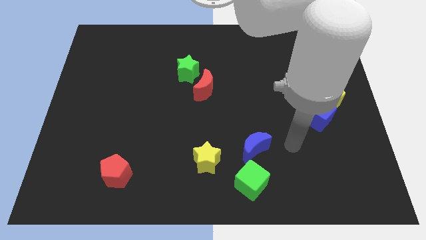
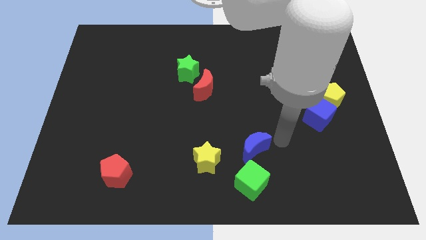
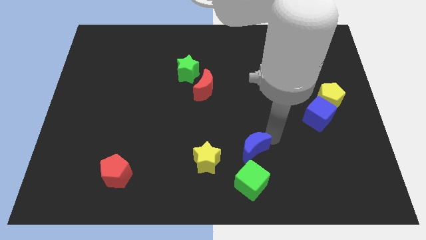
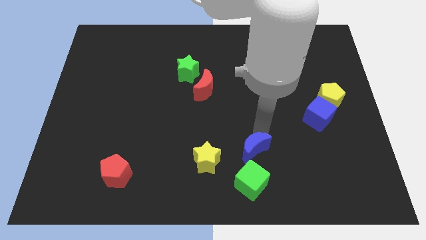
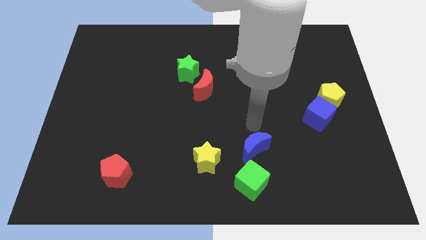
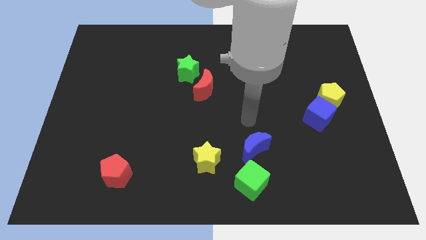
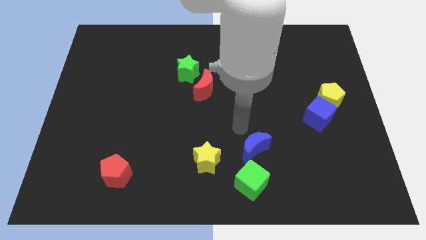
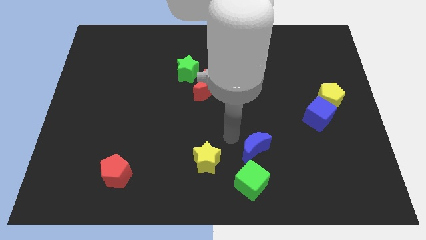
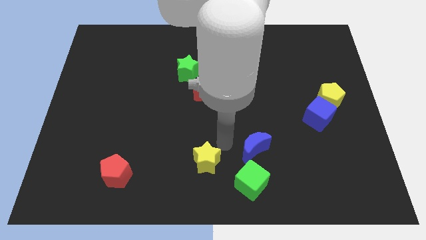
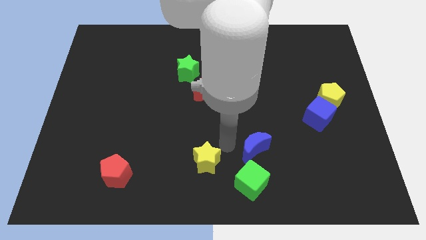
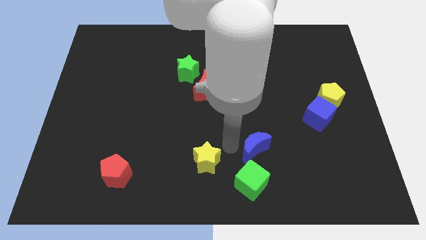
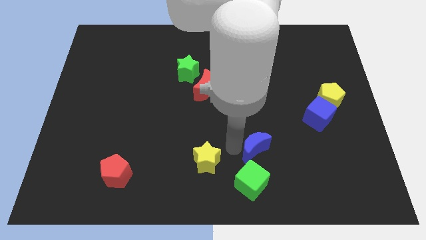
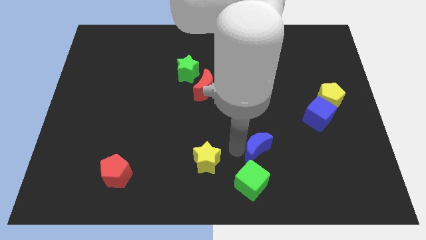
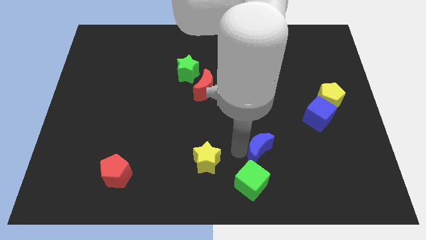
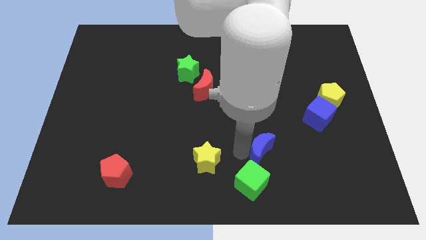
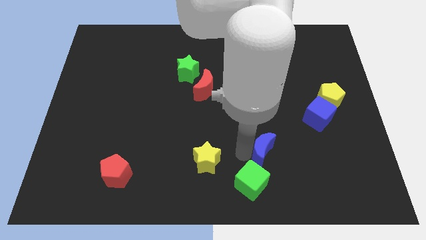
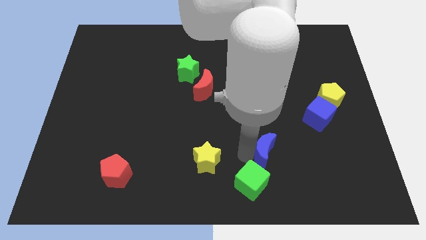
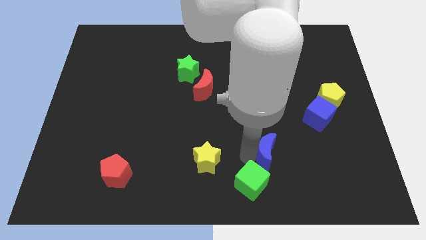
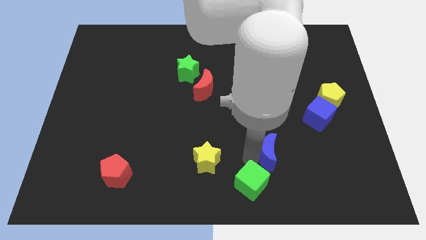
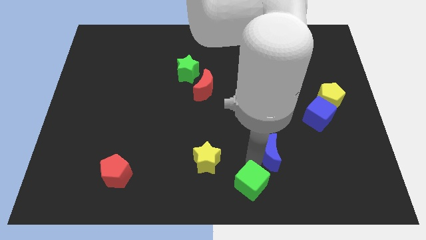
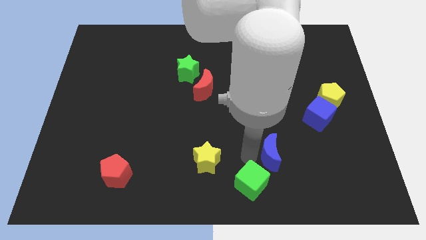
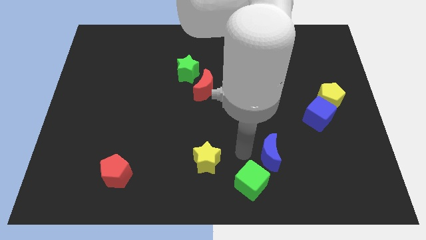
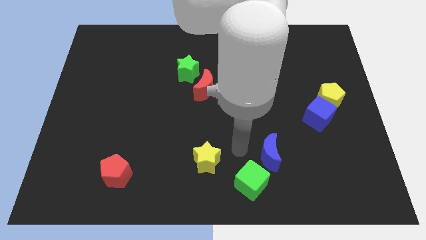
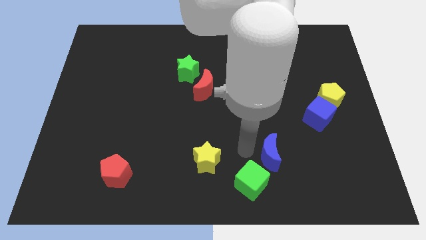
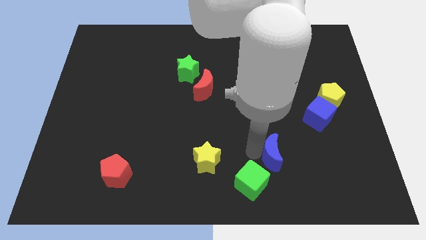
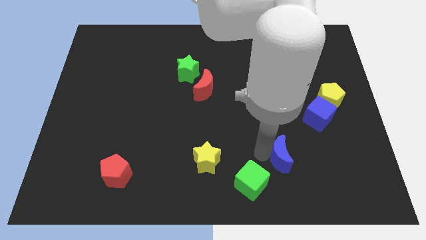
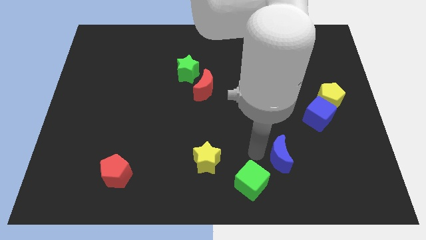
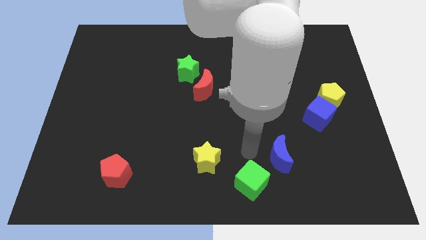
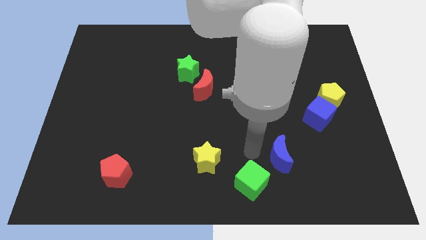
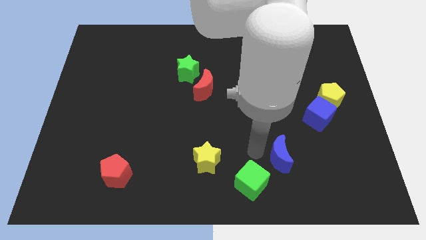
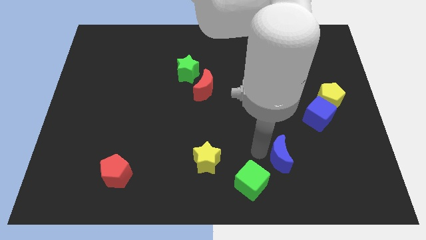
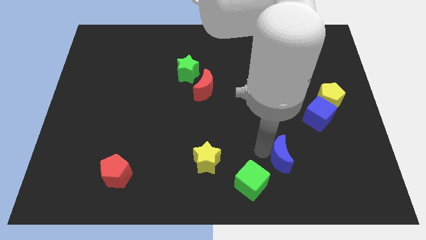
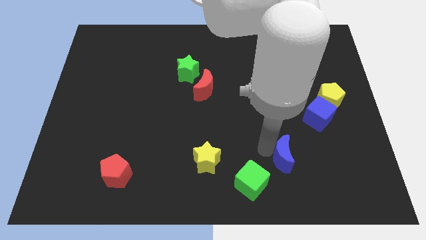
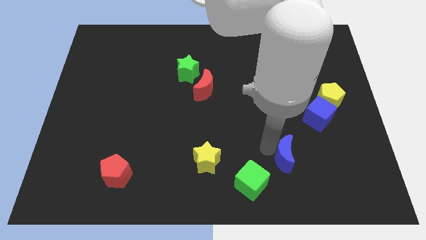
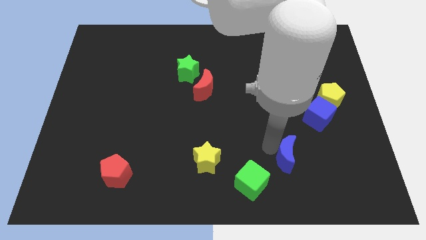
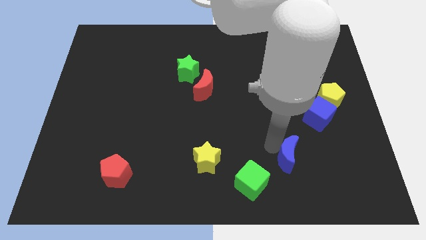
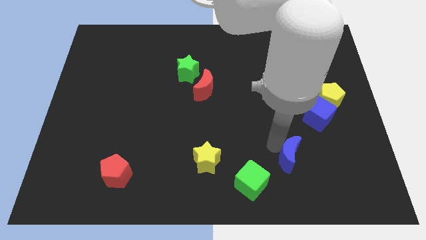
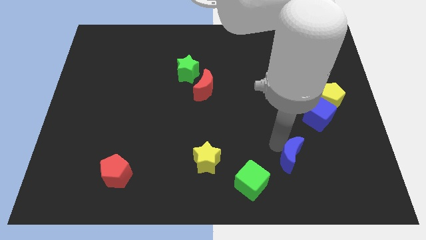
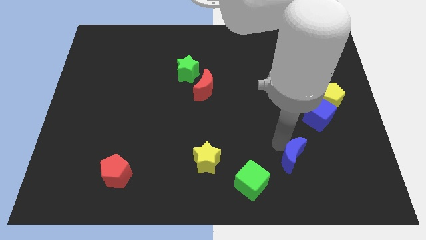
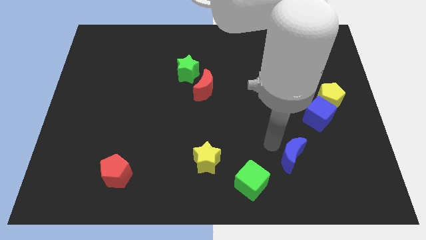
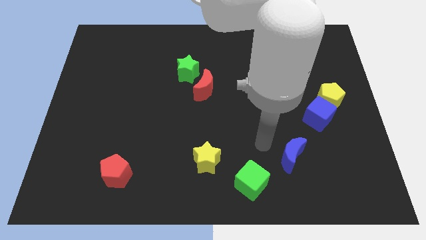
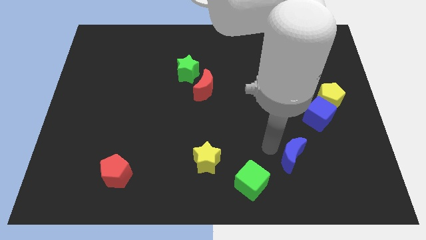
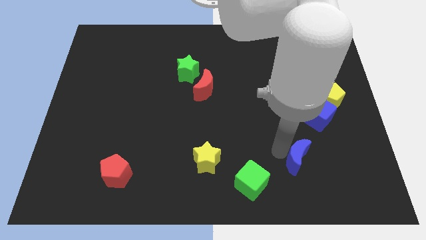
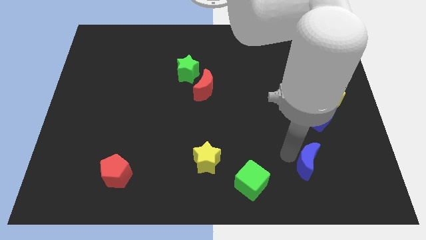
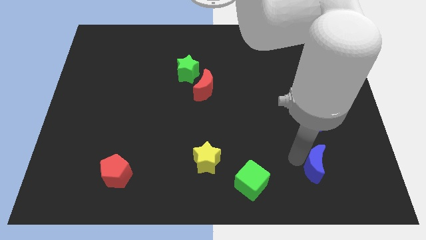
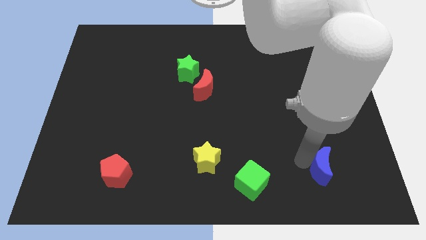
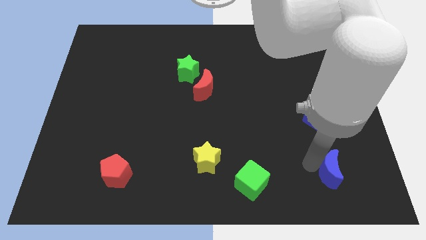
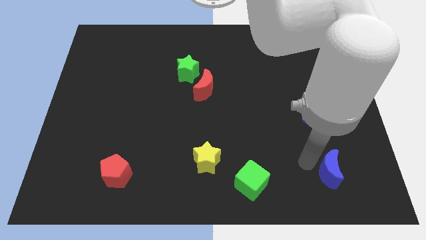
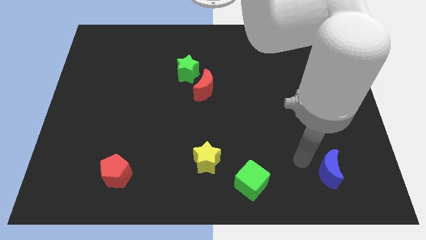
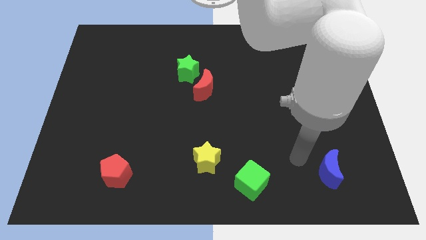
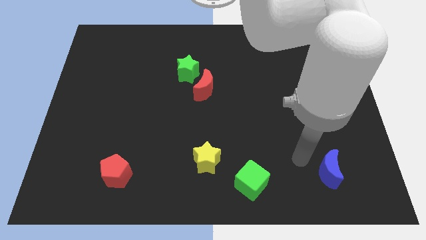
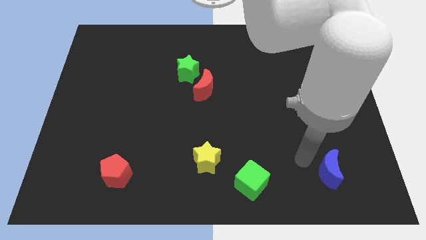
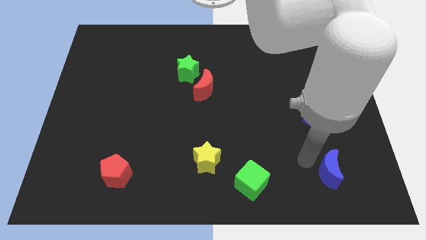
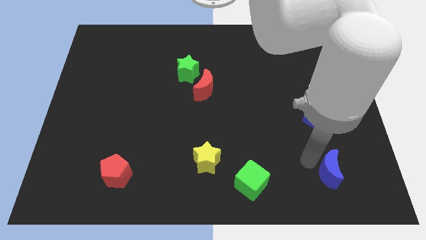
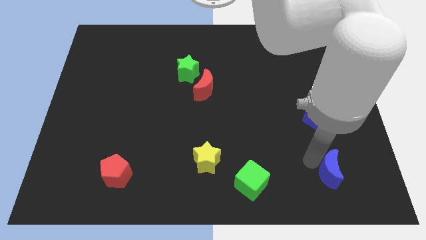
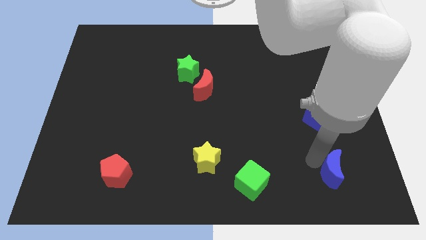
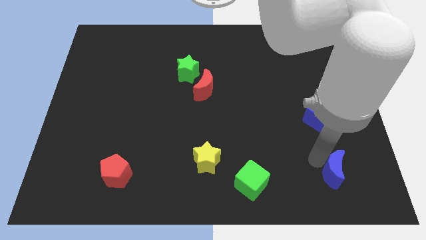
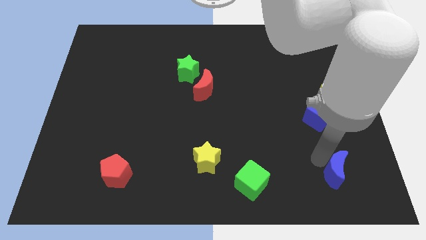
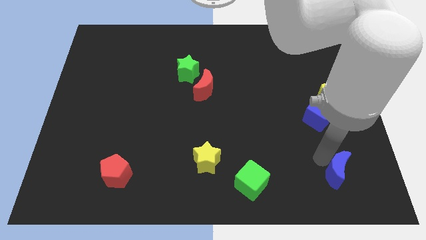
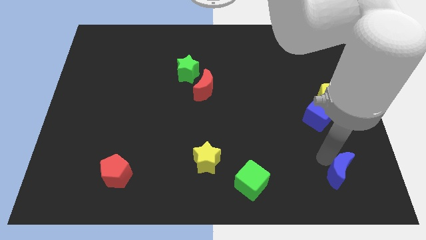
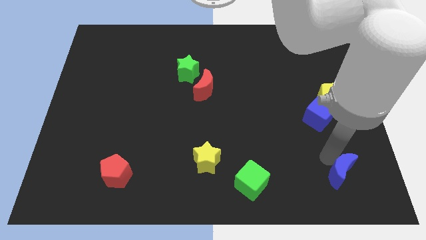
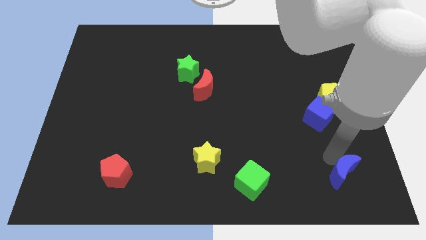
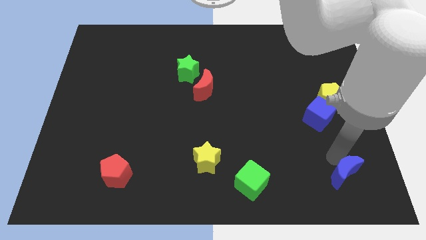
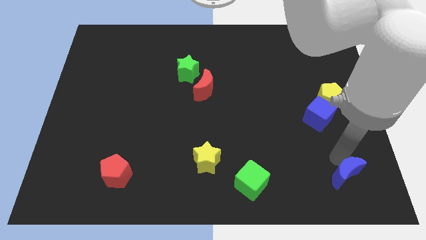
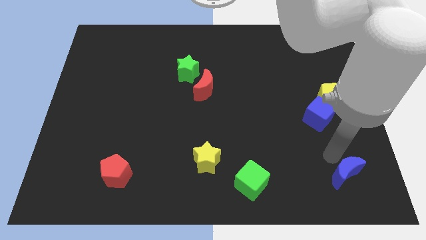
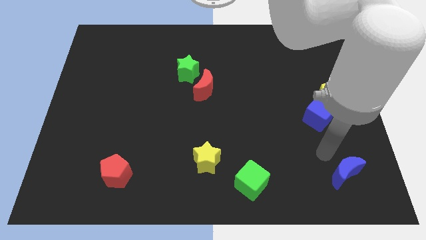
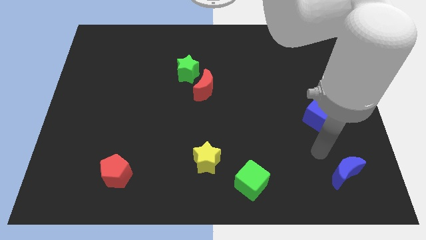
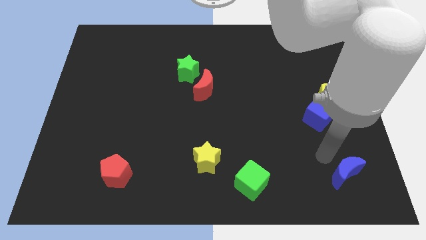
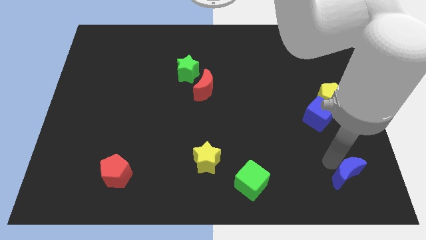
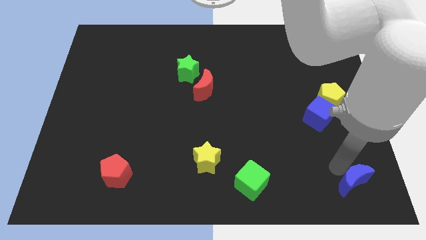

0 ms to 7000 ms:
put the blue moon to the bottom right

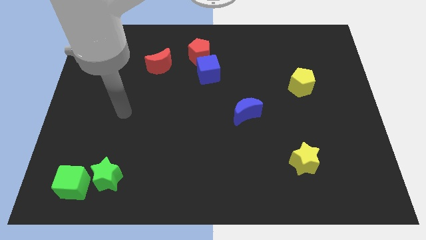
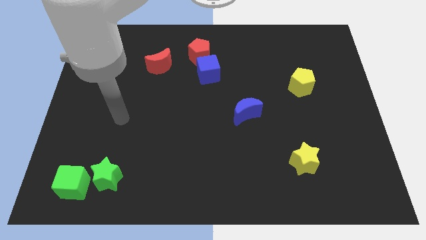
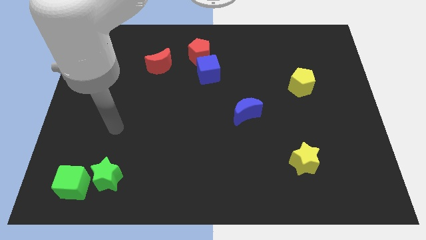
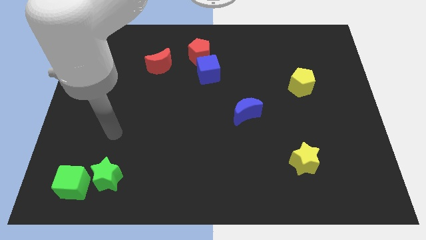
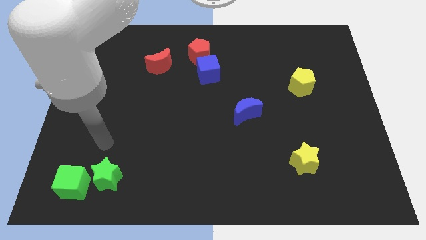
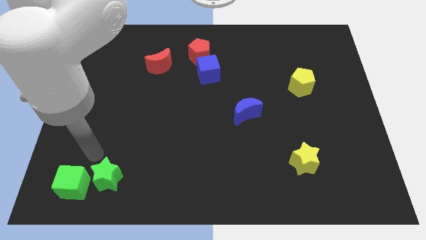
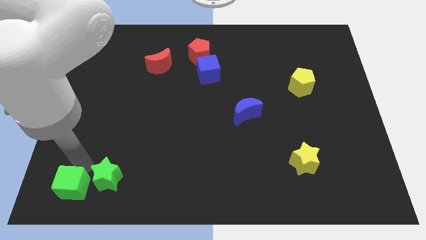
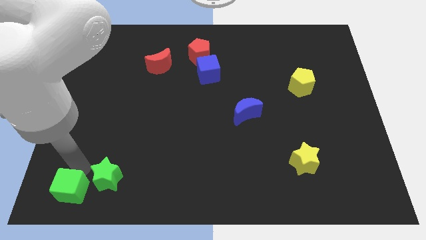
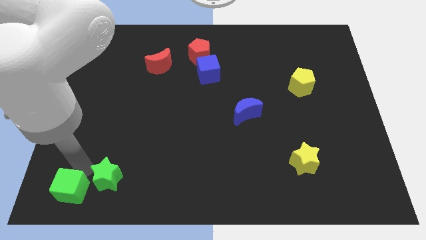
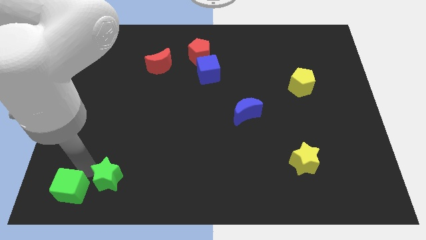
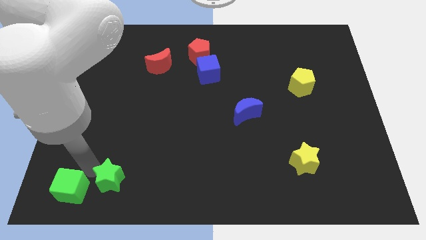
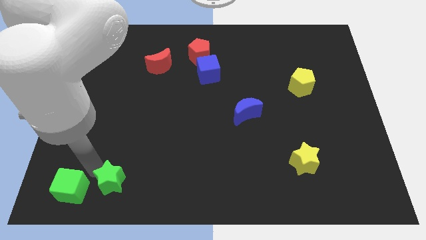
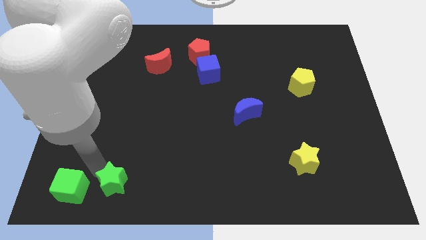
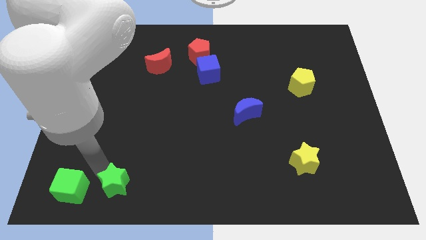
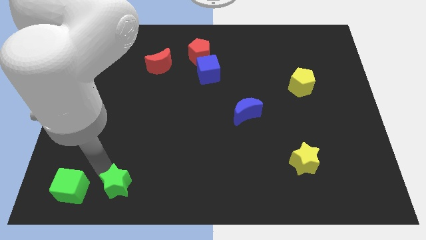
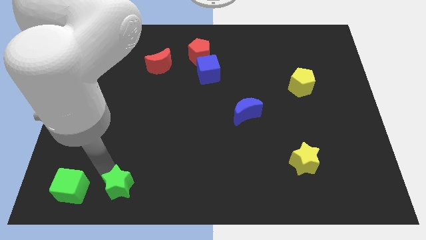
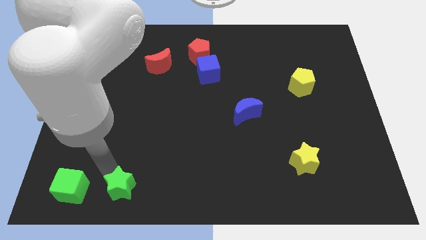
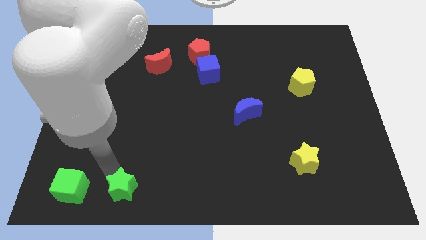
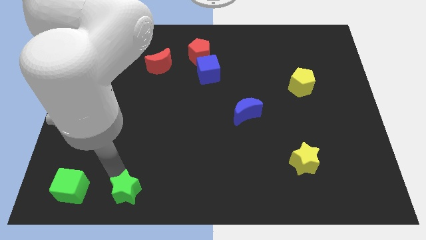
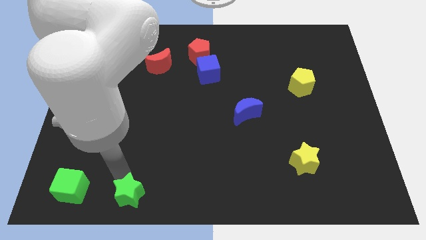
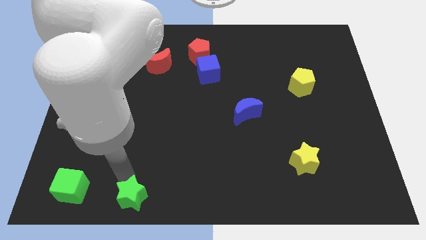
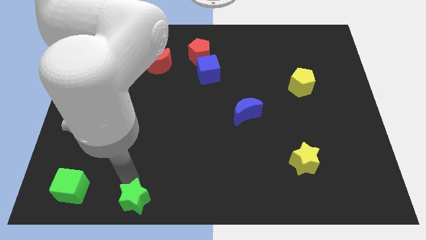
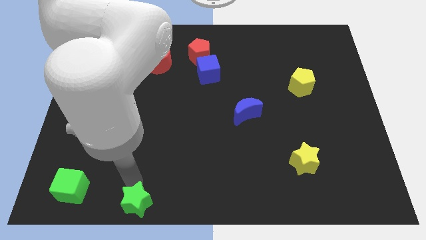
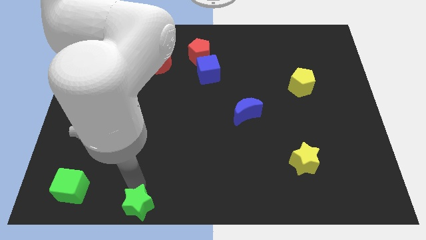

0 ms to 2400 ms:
slide the green star to the bottom side
